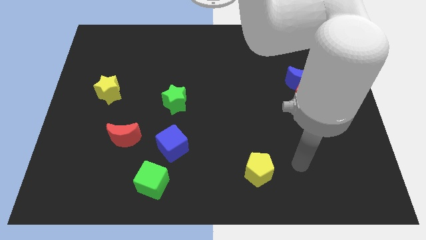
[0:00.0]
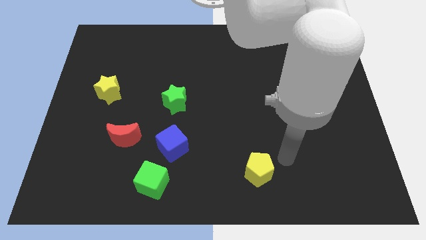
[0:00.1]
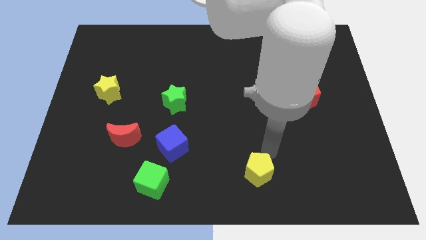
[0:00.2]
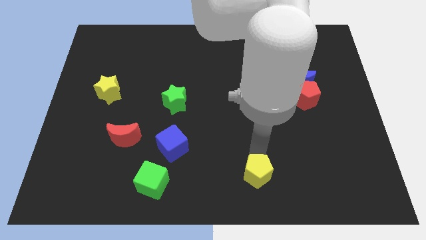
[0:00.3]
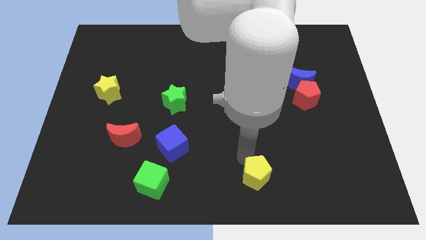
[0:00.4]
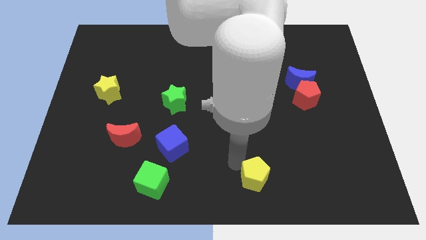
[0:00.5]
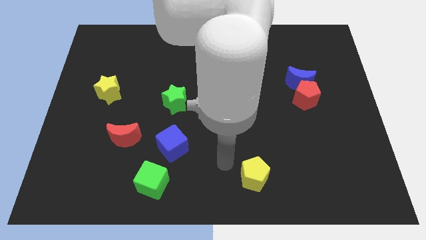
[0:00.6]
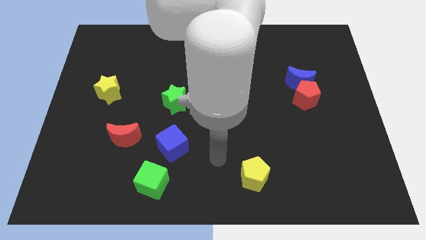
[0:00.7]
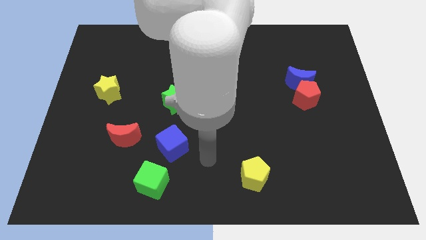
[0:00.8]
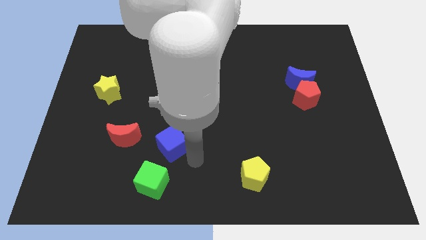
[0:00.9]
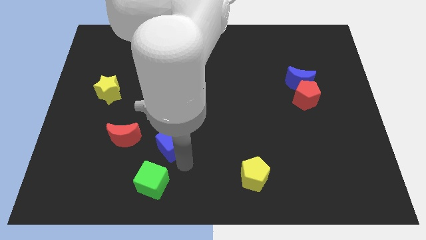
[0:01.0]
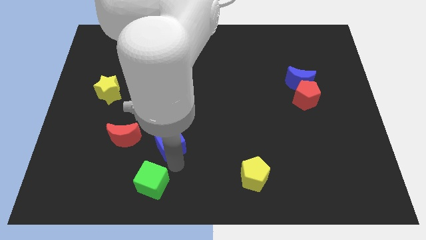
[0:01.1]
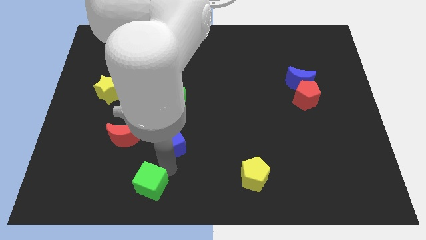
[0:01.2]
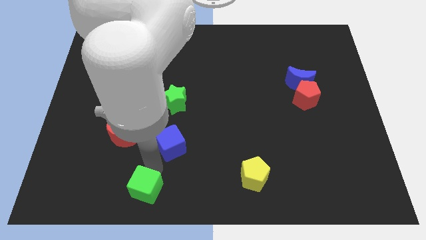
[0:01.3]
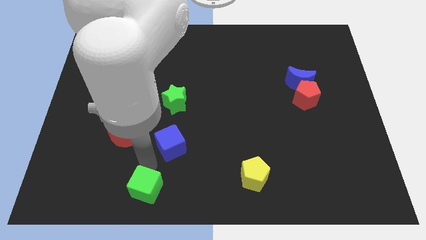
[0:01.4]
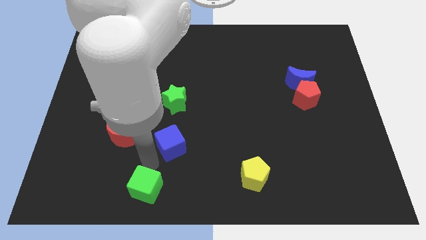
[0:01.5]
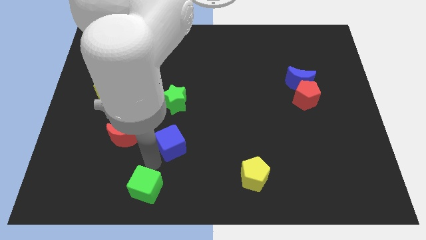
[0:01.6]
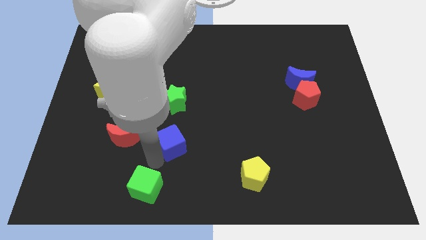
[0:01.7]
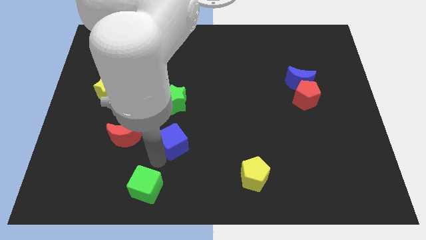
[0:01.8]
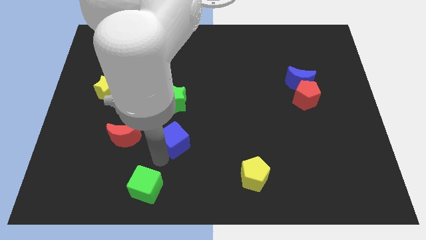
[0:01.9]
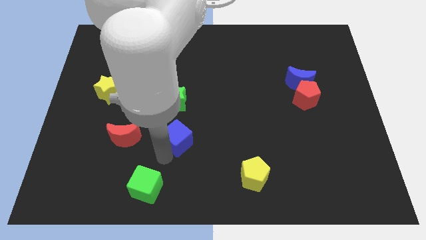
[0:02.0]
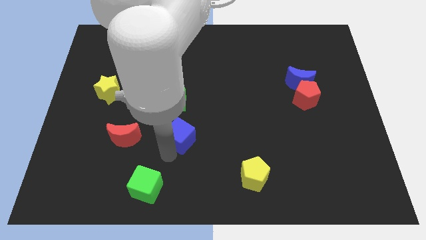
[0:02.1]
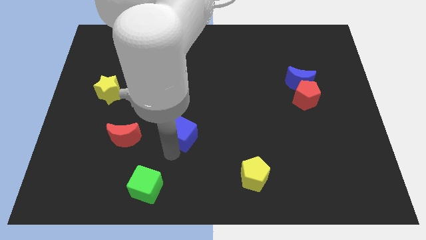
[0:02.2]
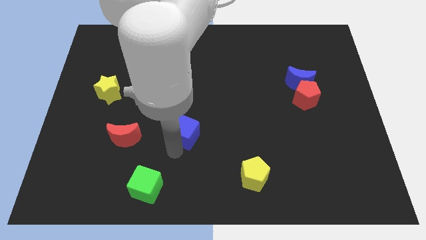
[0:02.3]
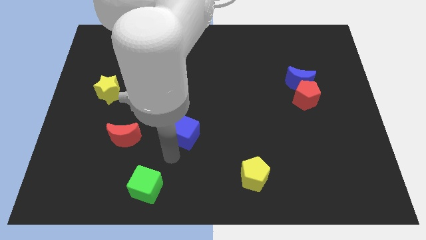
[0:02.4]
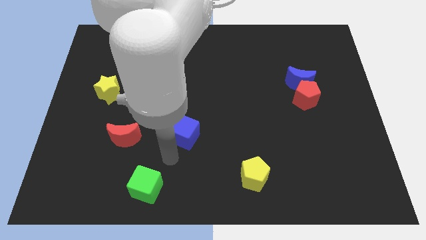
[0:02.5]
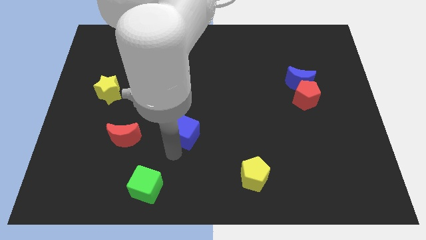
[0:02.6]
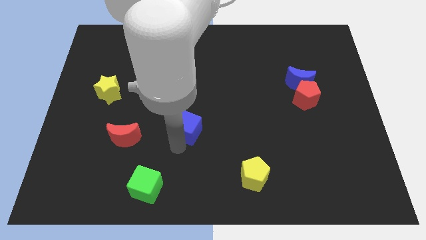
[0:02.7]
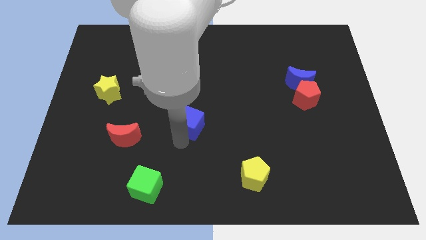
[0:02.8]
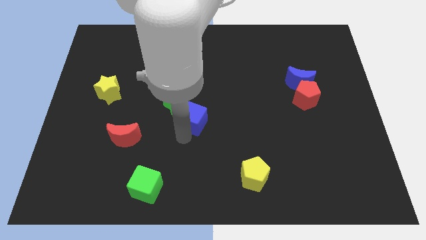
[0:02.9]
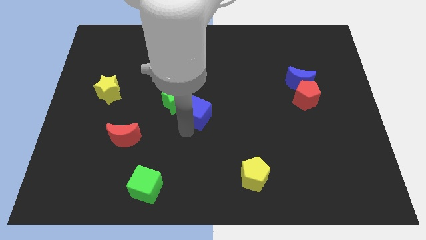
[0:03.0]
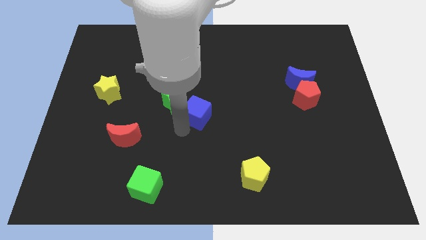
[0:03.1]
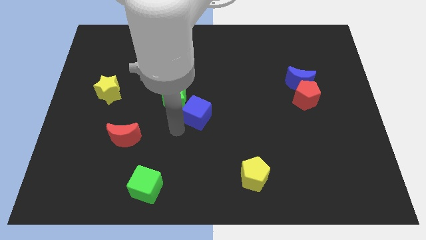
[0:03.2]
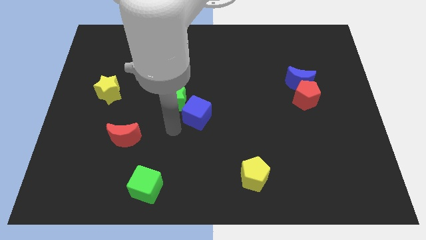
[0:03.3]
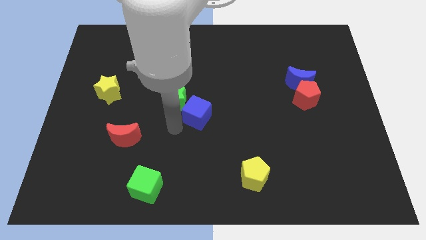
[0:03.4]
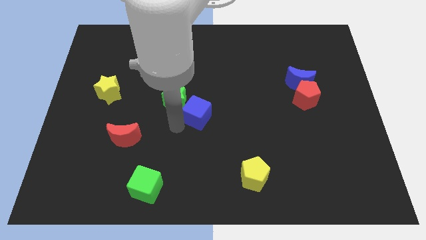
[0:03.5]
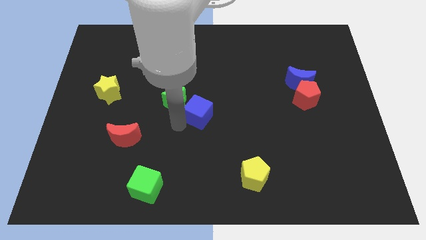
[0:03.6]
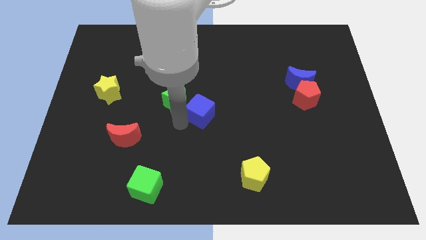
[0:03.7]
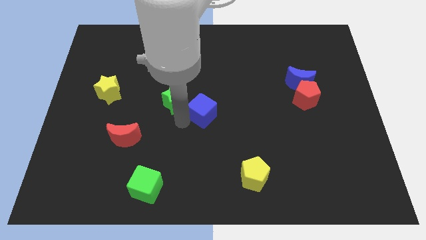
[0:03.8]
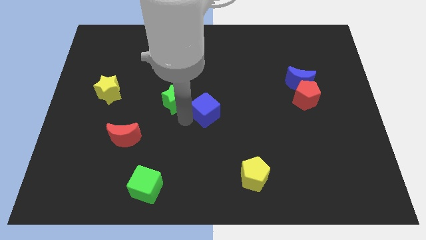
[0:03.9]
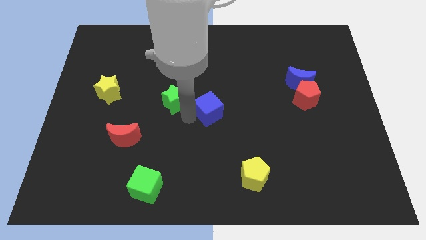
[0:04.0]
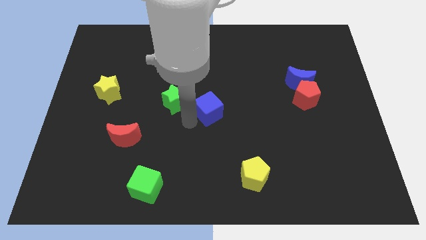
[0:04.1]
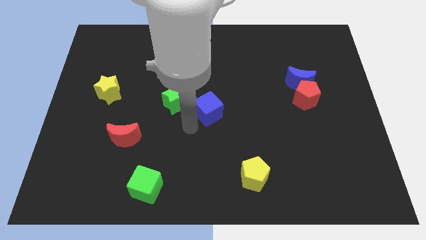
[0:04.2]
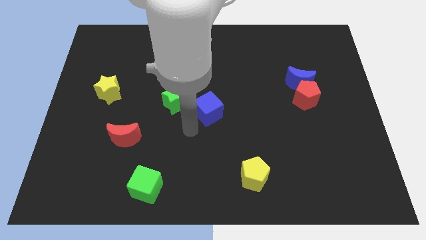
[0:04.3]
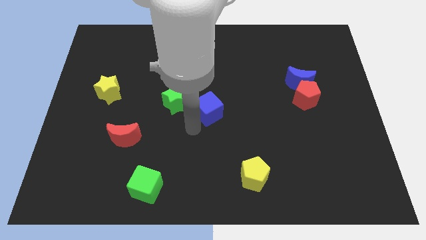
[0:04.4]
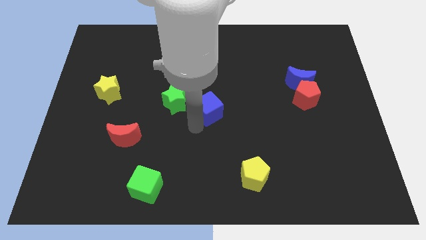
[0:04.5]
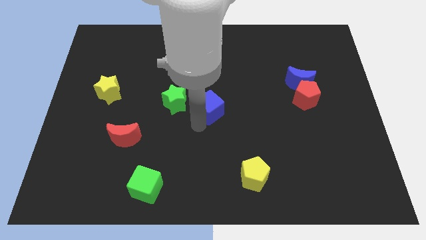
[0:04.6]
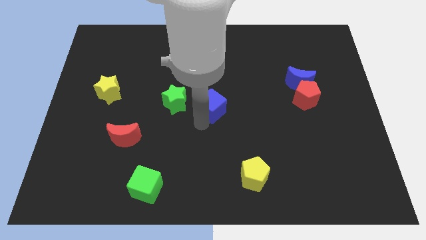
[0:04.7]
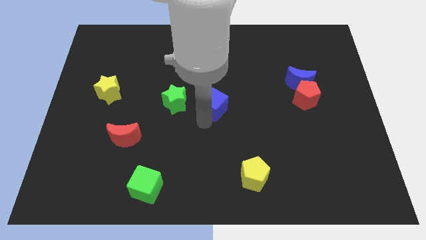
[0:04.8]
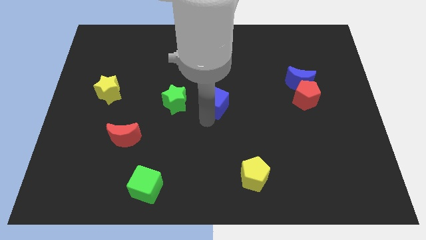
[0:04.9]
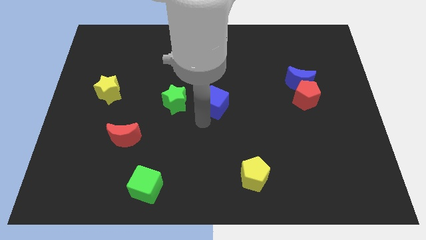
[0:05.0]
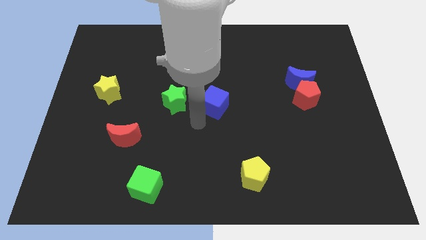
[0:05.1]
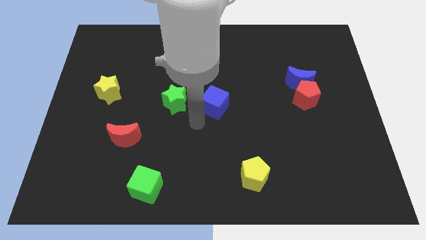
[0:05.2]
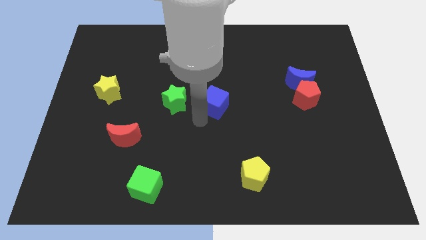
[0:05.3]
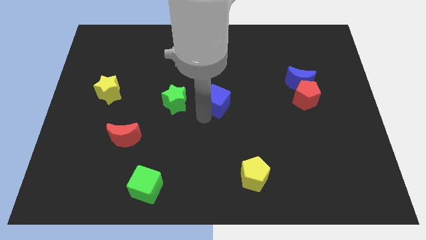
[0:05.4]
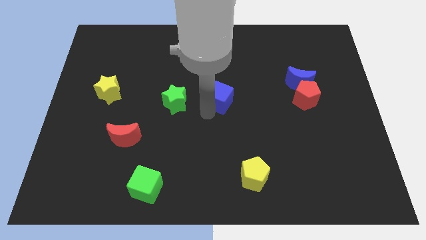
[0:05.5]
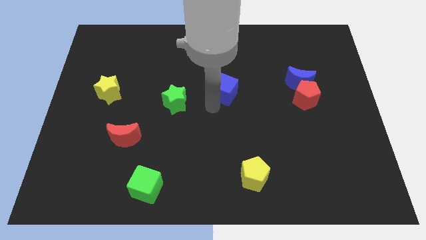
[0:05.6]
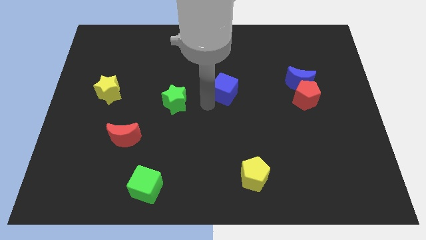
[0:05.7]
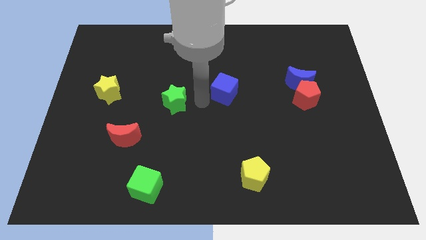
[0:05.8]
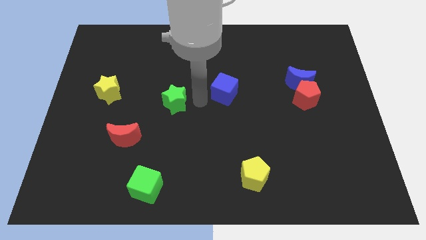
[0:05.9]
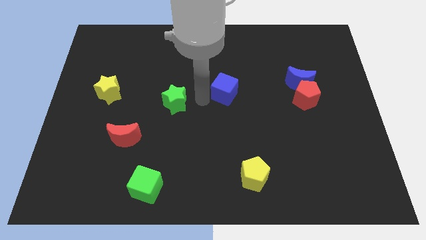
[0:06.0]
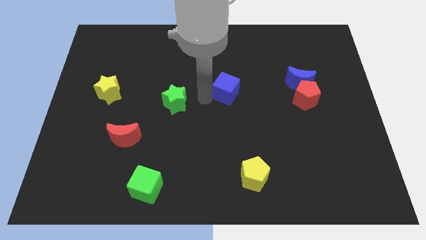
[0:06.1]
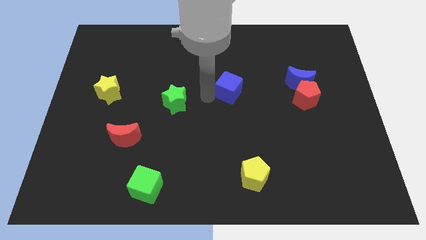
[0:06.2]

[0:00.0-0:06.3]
slide the blue cube upwards and right

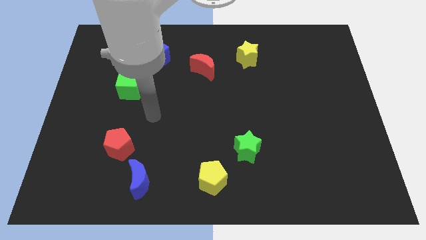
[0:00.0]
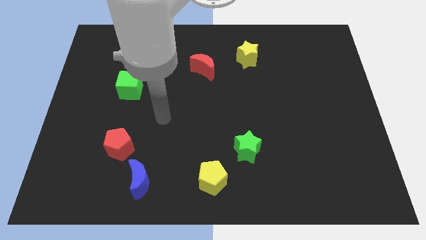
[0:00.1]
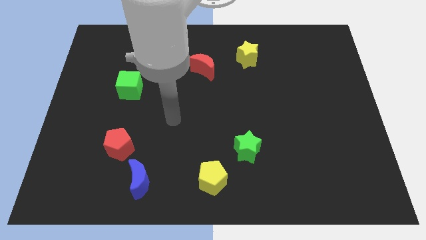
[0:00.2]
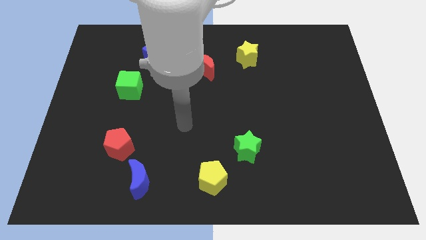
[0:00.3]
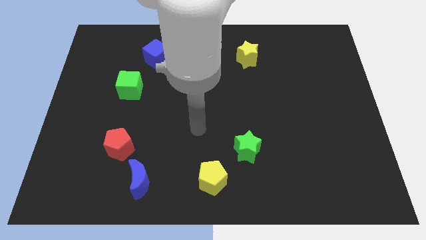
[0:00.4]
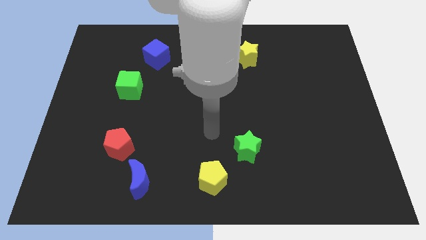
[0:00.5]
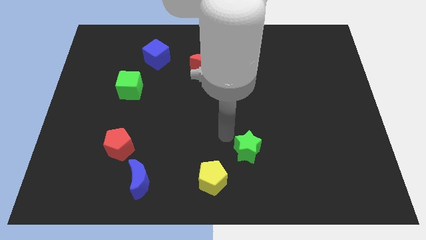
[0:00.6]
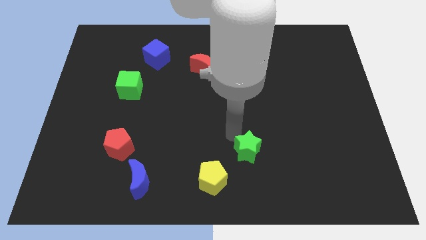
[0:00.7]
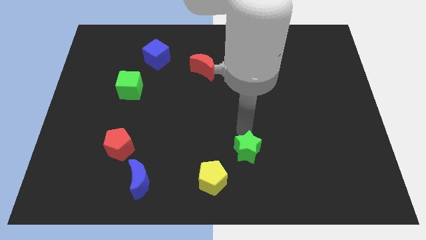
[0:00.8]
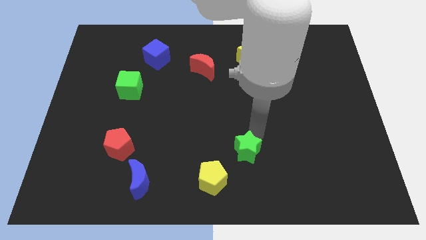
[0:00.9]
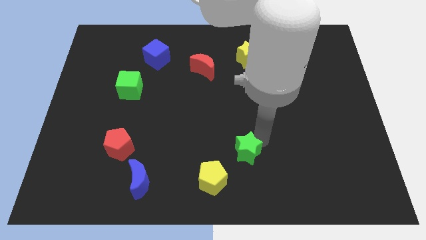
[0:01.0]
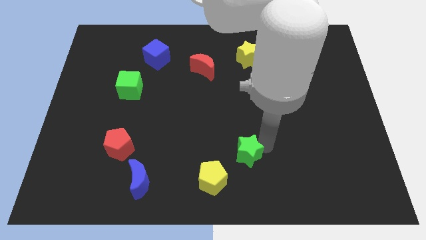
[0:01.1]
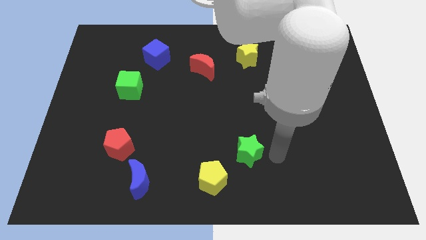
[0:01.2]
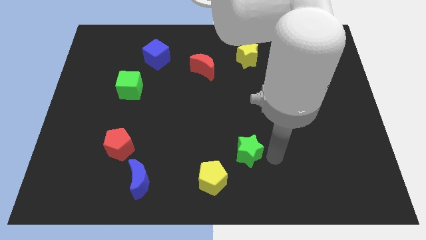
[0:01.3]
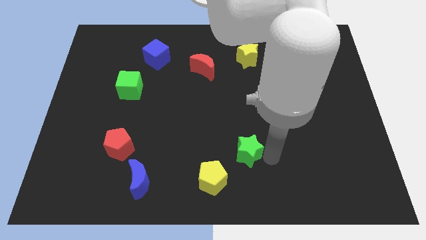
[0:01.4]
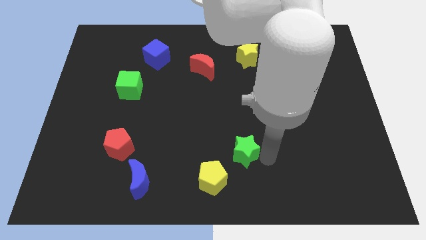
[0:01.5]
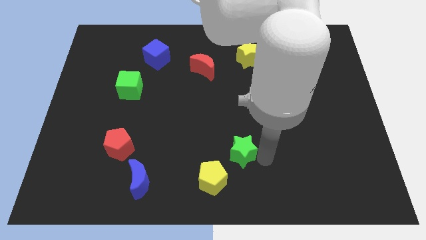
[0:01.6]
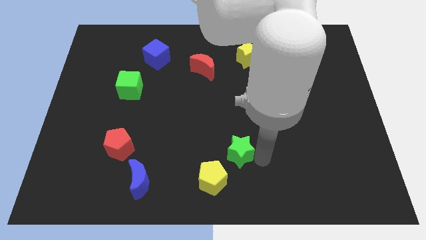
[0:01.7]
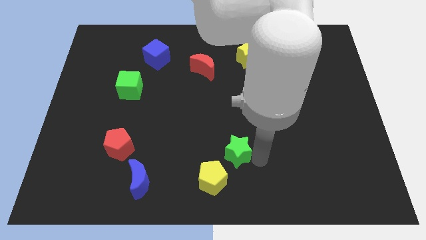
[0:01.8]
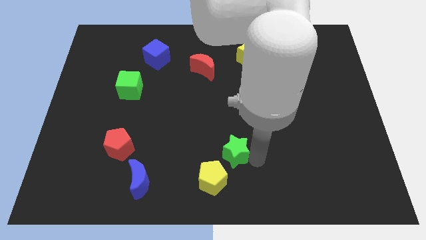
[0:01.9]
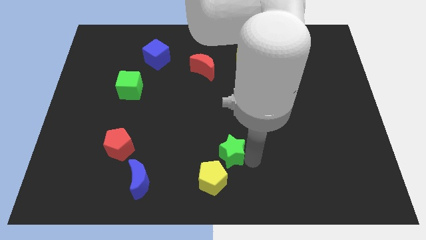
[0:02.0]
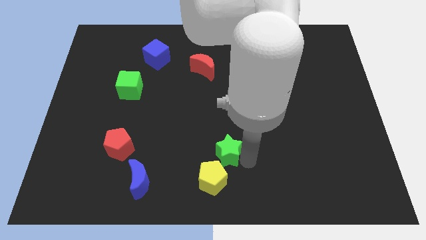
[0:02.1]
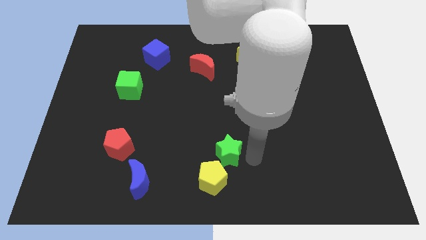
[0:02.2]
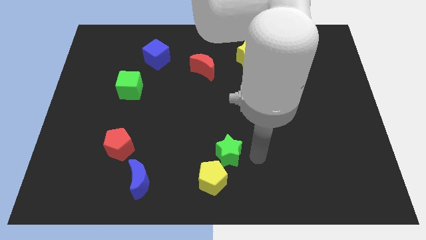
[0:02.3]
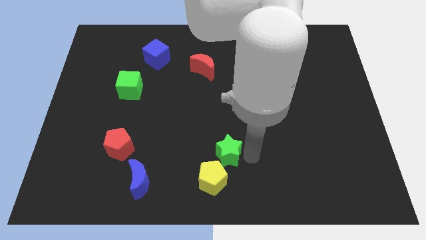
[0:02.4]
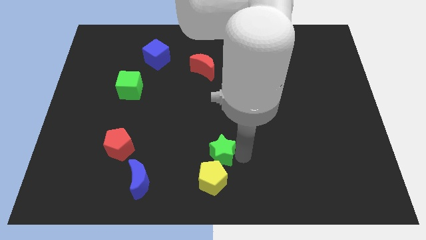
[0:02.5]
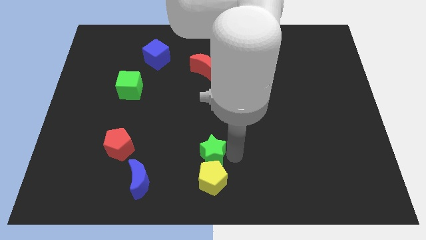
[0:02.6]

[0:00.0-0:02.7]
slightly move the green star to the left
